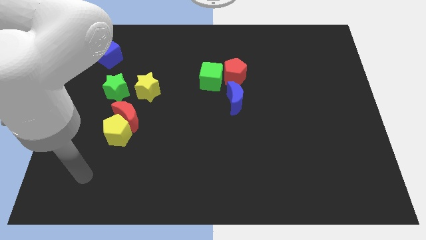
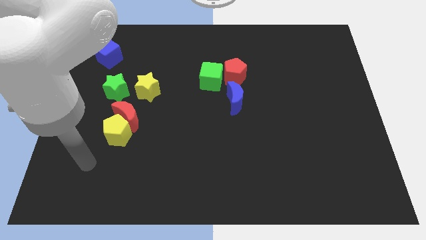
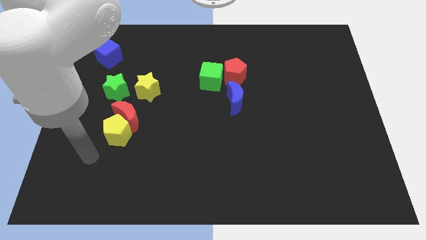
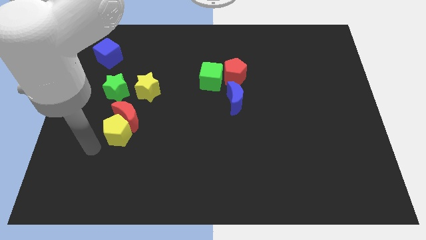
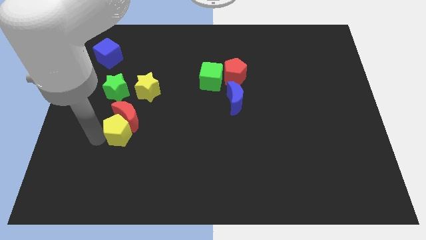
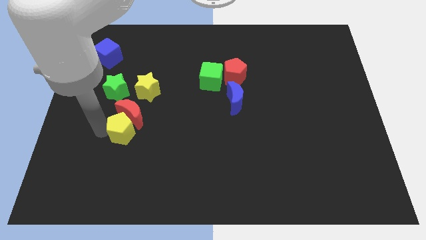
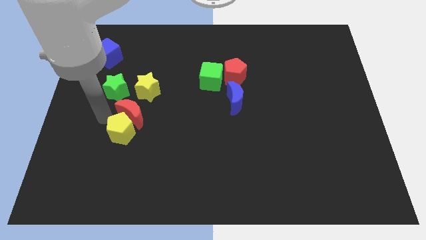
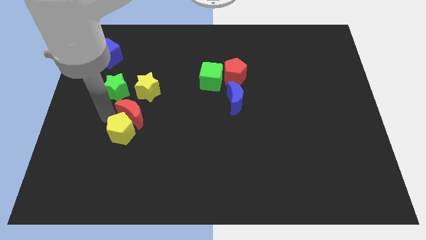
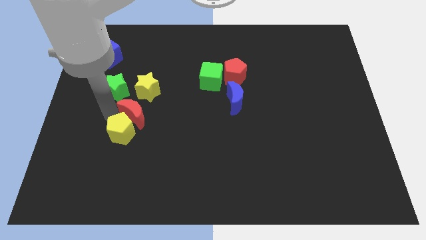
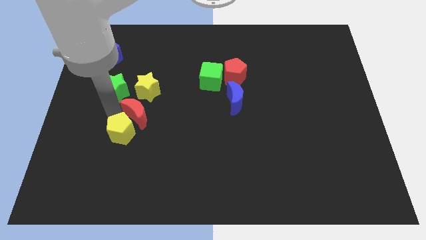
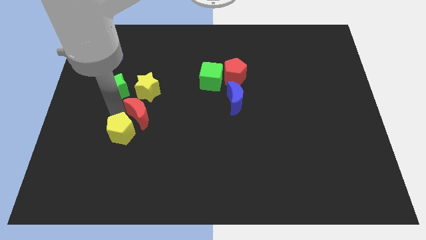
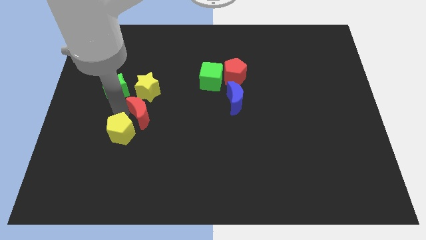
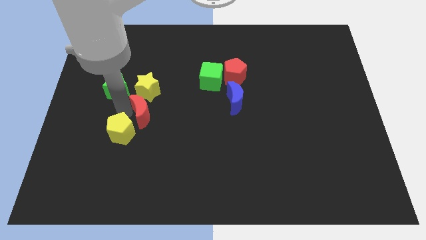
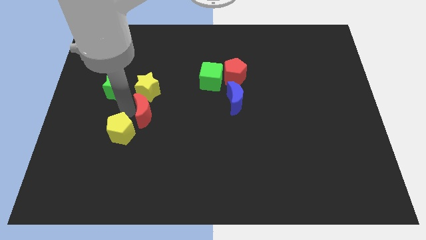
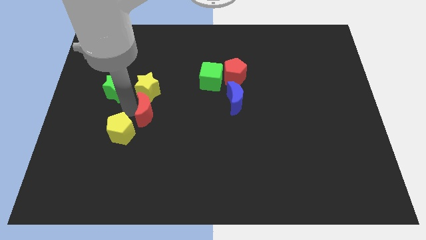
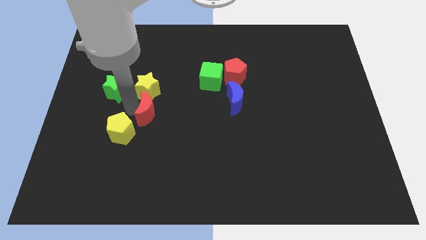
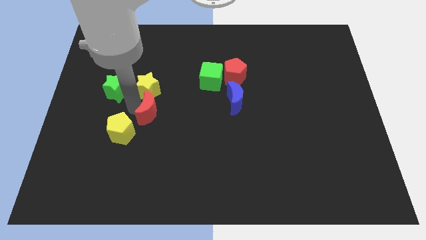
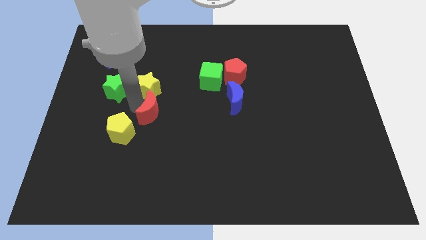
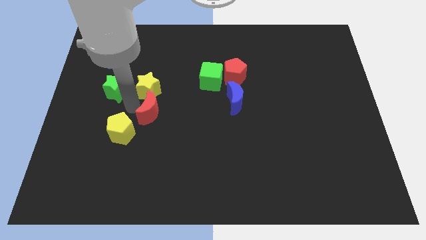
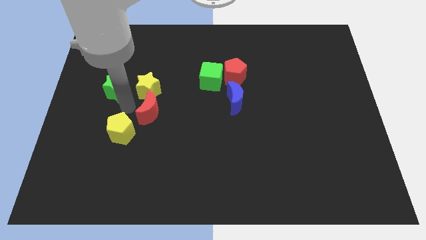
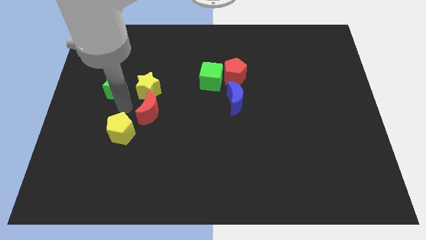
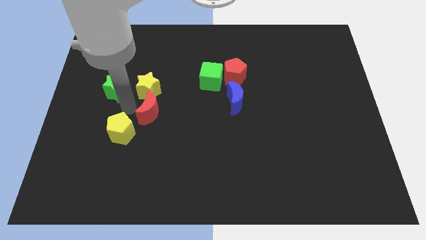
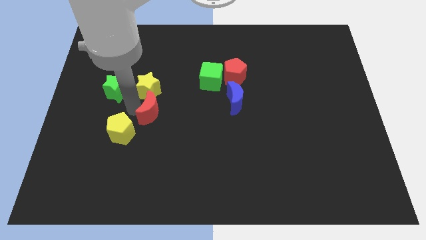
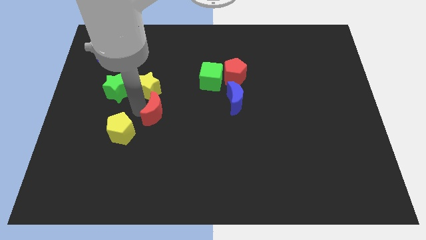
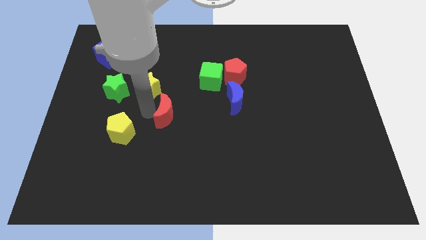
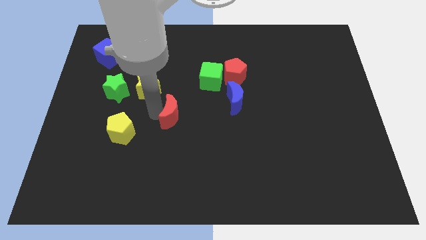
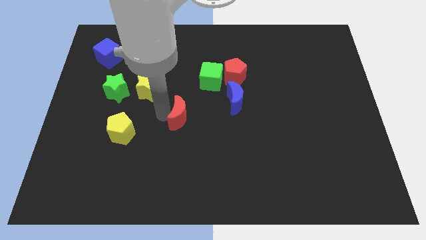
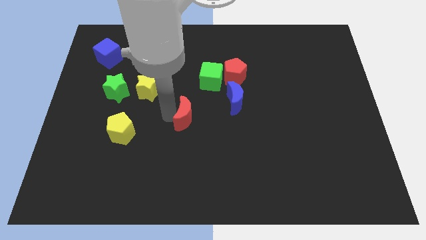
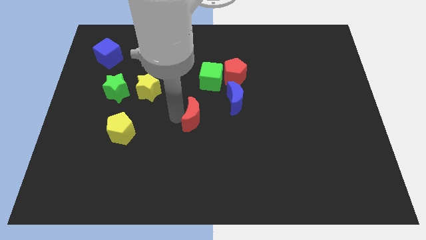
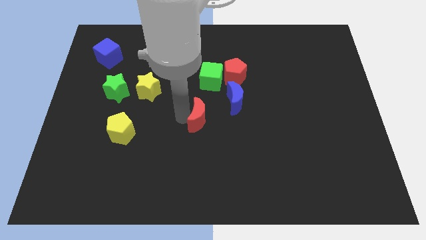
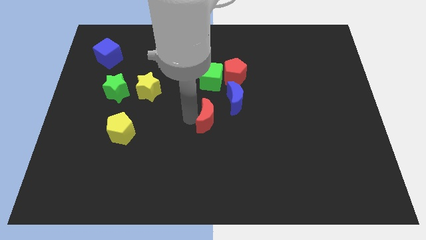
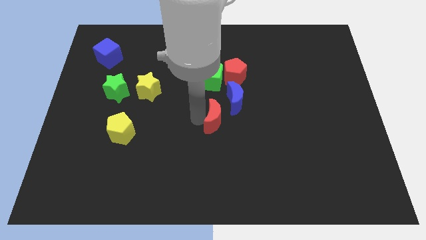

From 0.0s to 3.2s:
push the red moon right

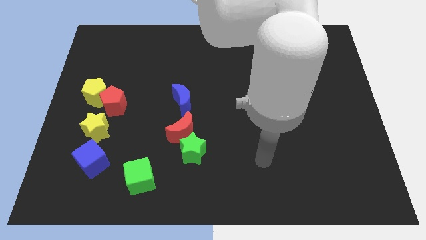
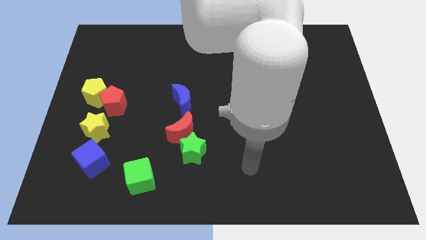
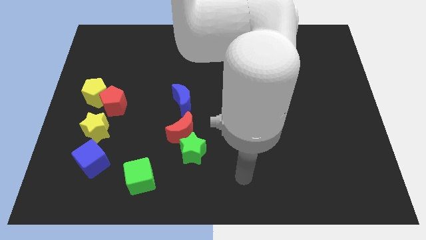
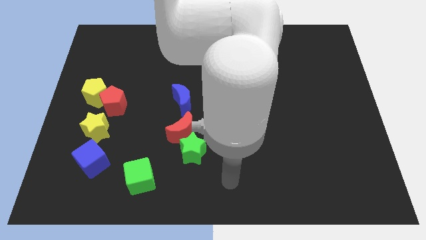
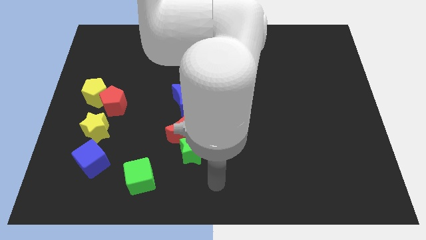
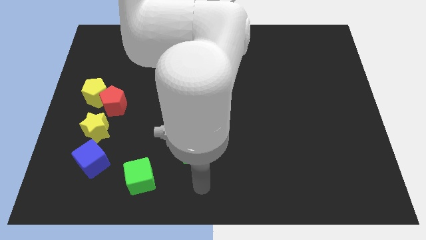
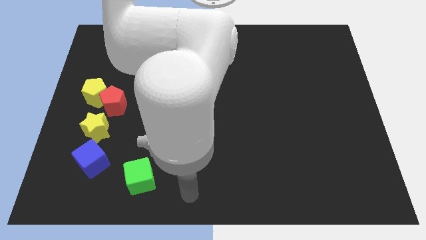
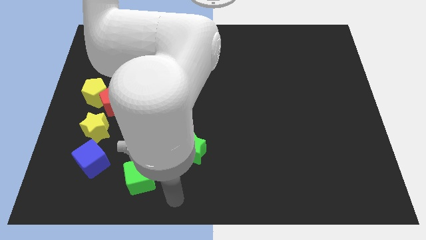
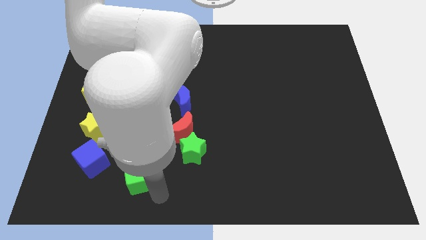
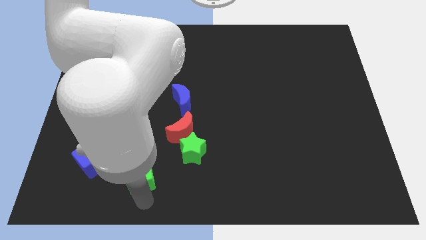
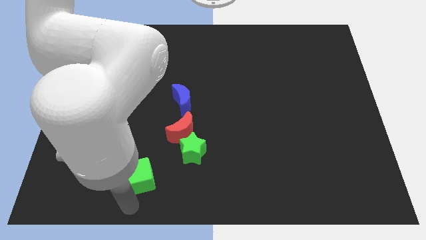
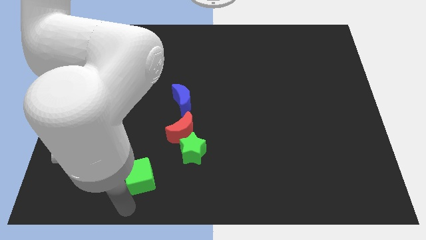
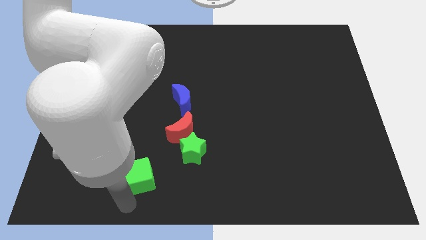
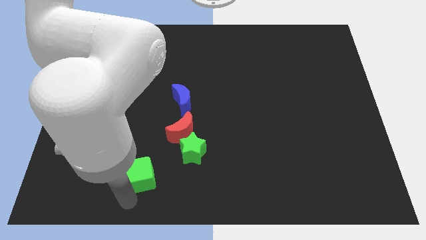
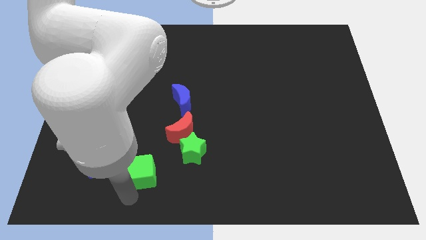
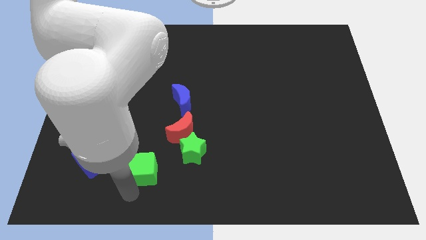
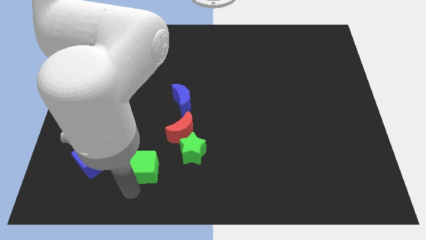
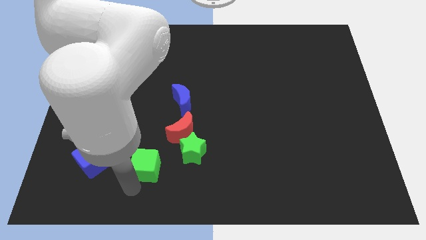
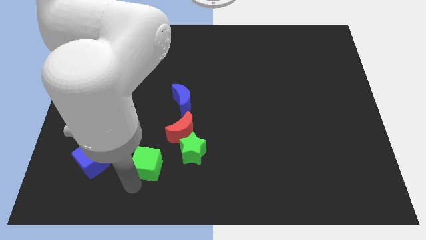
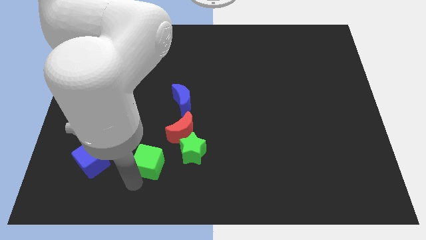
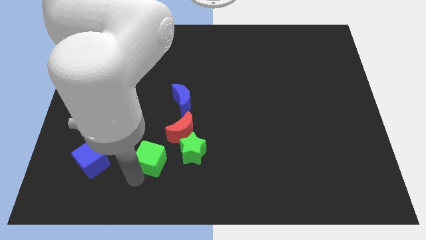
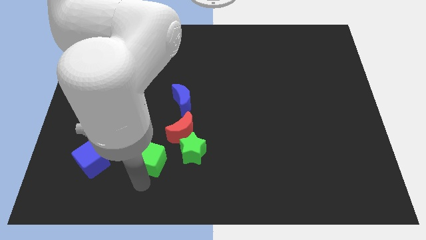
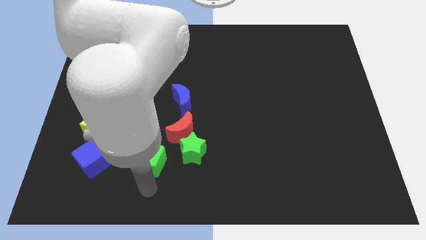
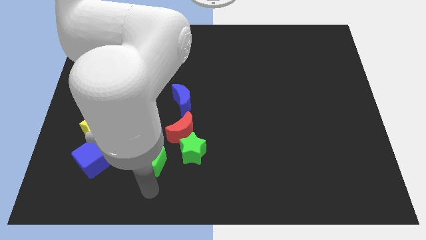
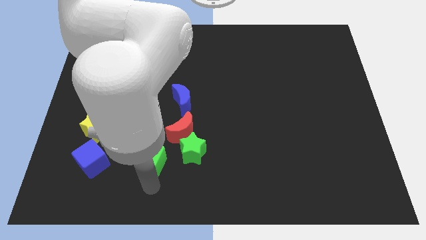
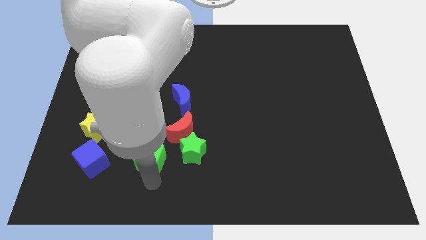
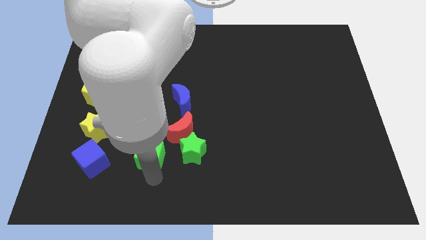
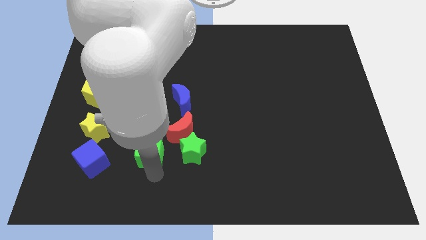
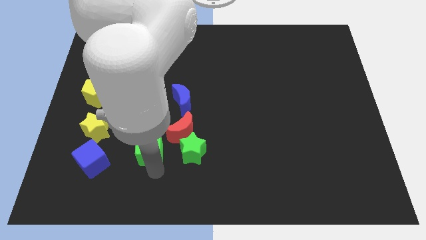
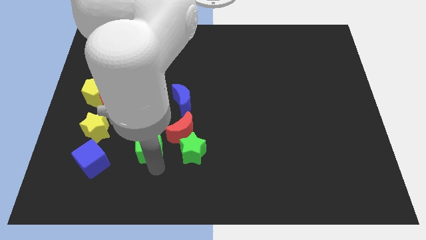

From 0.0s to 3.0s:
push the green cube up a bit

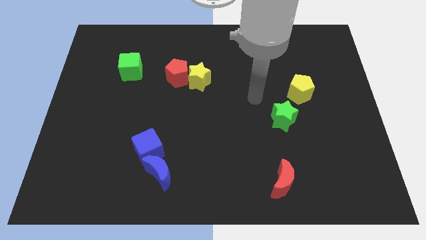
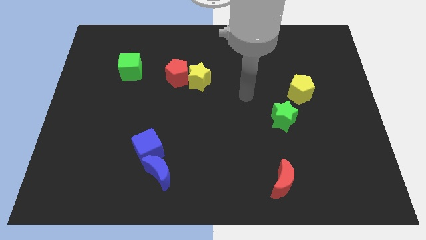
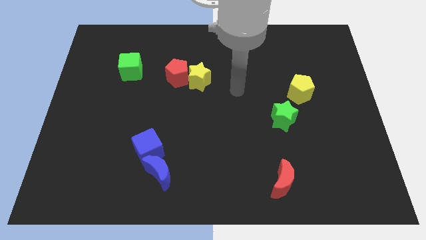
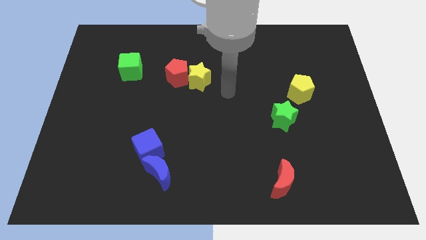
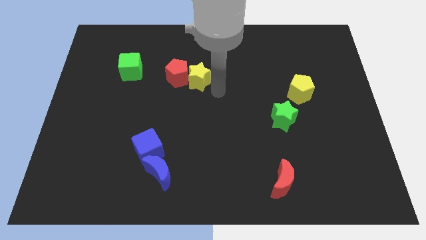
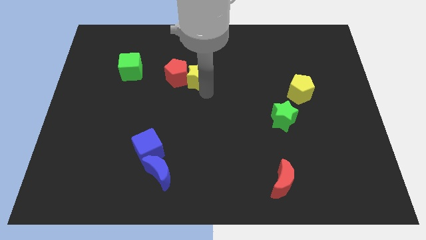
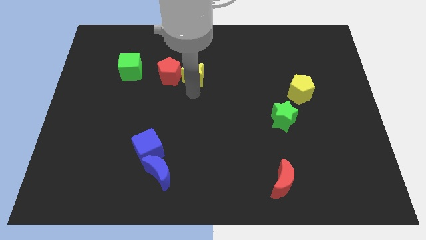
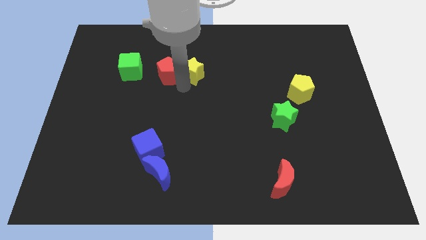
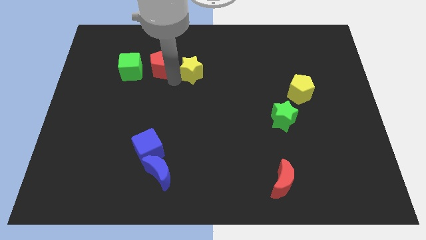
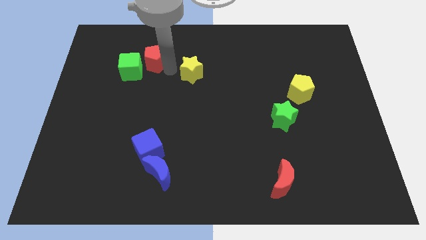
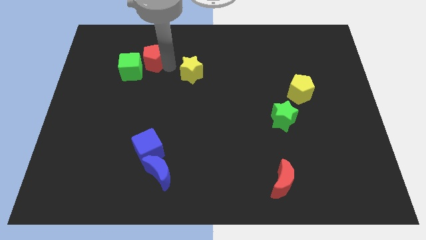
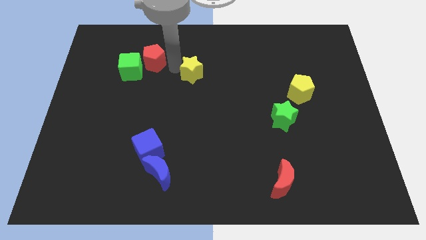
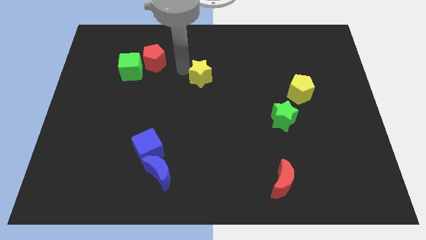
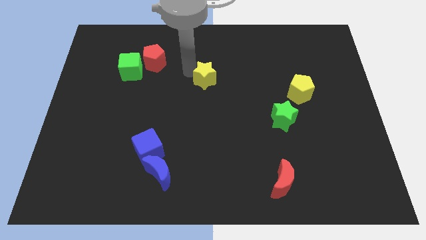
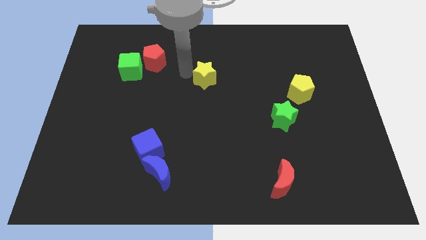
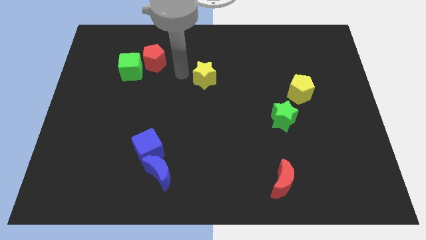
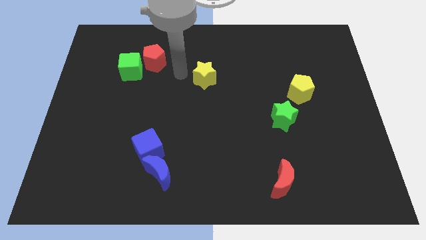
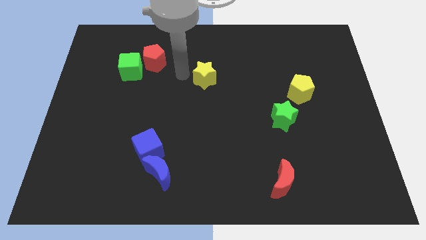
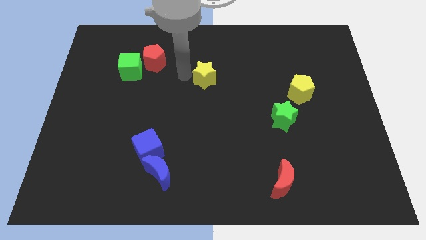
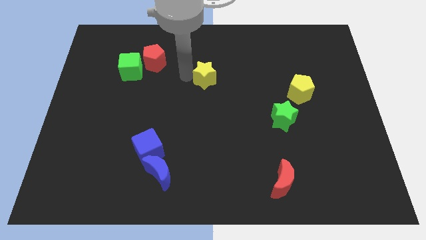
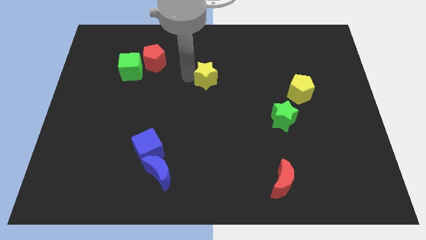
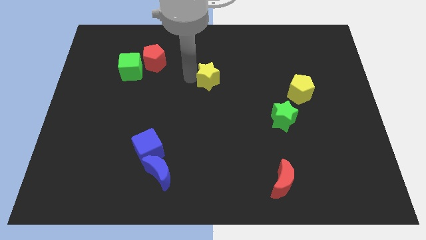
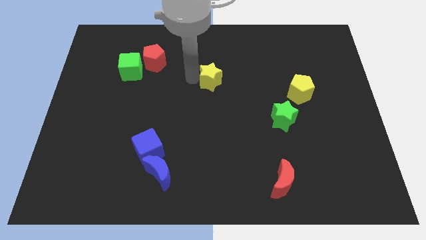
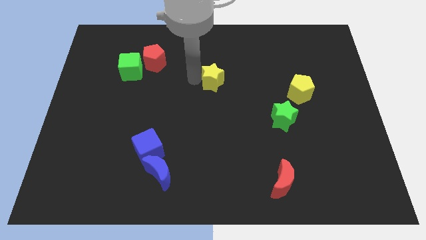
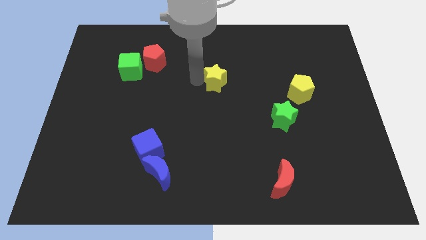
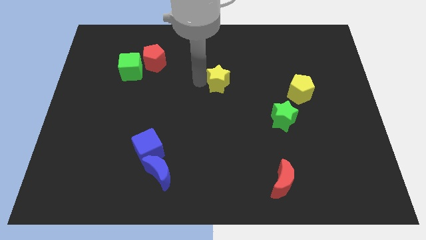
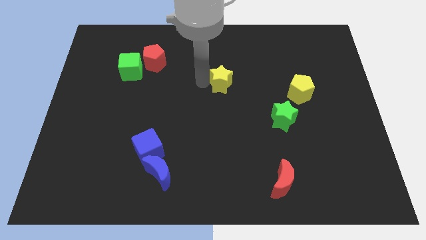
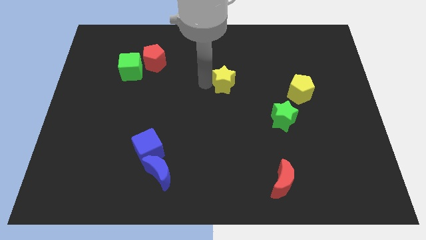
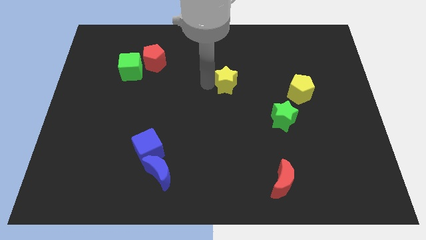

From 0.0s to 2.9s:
move the yellow star right somewhat
